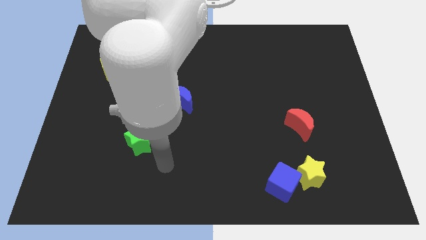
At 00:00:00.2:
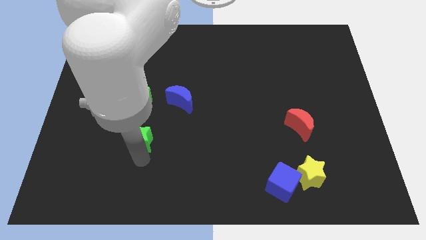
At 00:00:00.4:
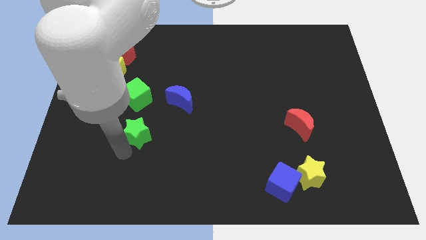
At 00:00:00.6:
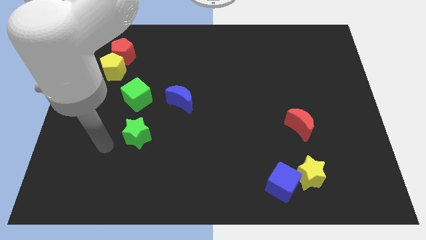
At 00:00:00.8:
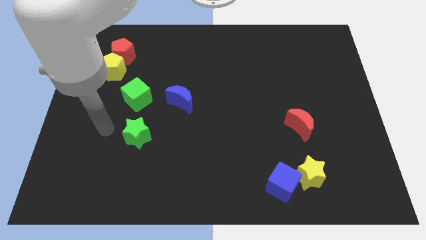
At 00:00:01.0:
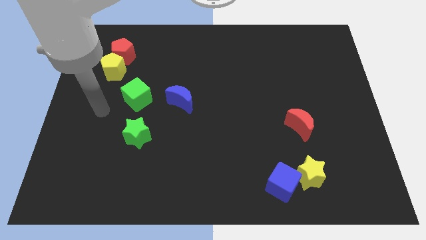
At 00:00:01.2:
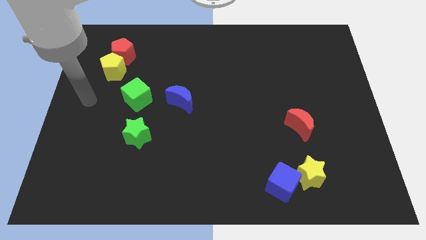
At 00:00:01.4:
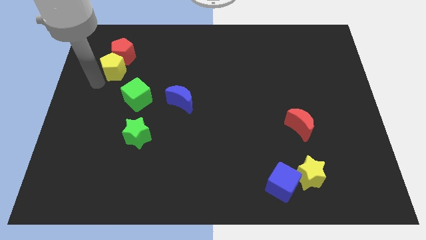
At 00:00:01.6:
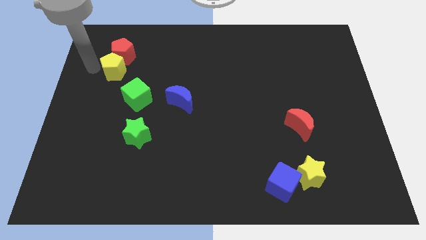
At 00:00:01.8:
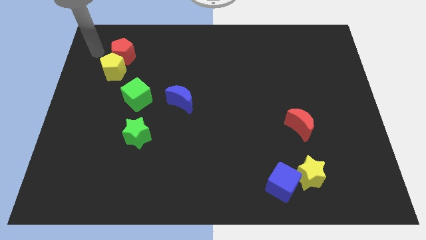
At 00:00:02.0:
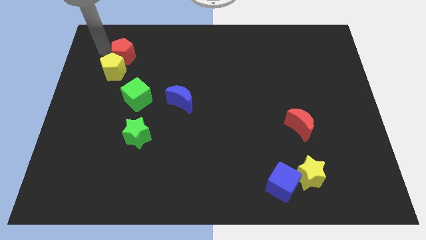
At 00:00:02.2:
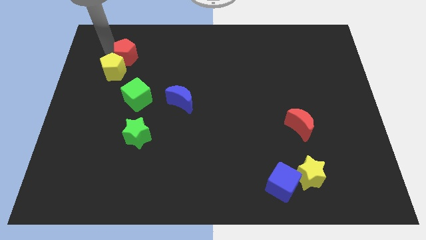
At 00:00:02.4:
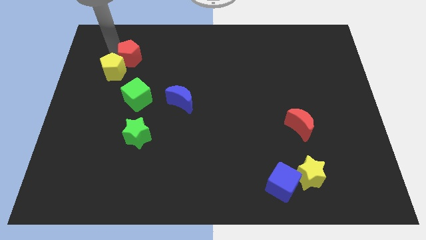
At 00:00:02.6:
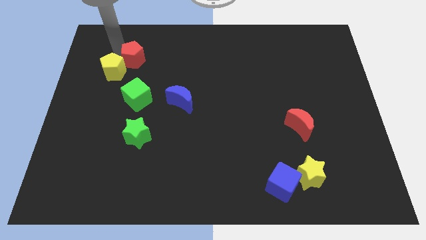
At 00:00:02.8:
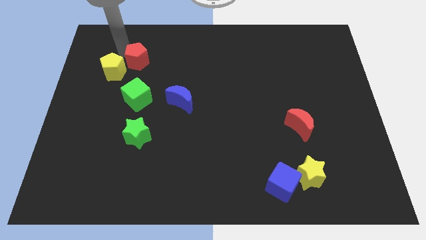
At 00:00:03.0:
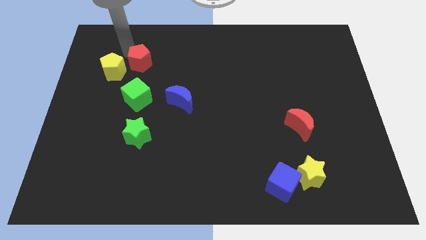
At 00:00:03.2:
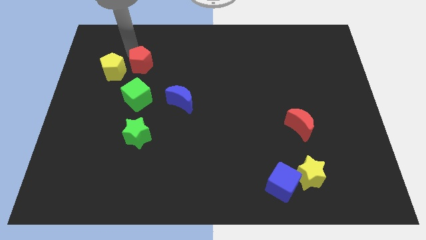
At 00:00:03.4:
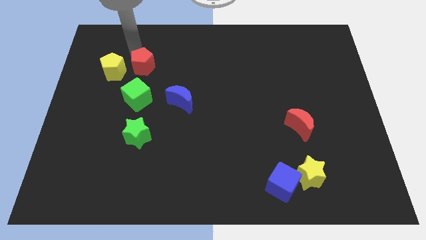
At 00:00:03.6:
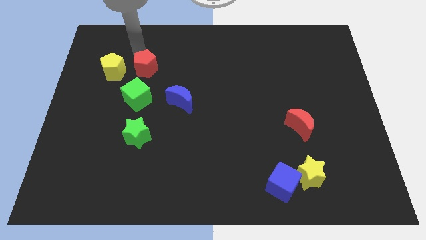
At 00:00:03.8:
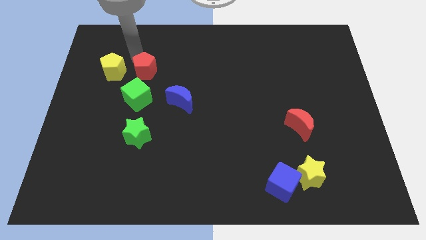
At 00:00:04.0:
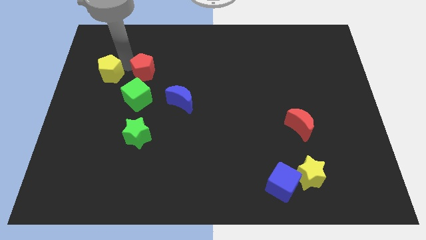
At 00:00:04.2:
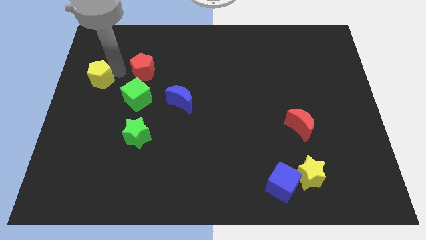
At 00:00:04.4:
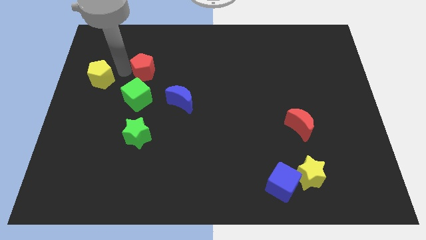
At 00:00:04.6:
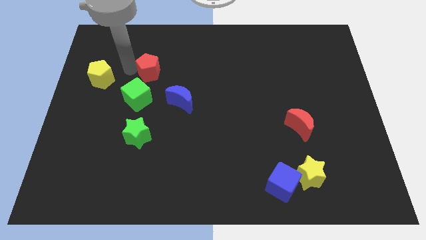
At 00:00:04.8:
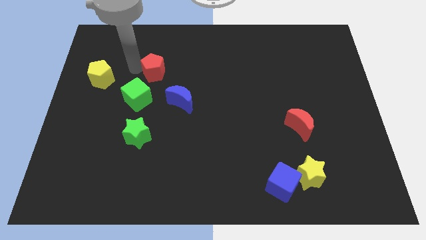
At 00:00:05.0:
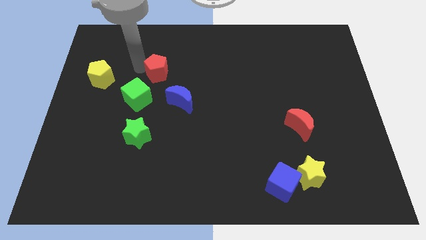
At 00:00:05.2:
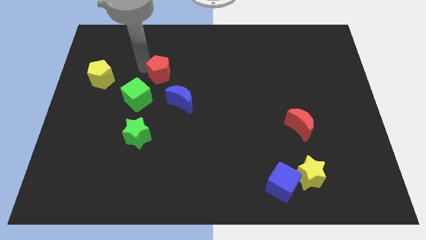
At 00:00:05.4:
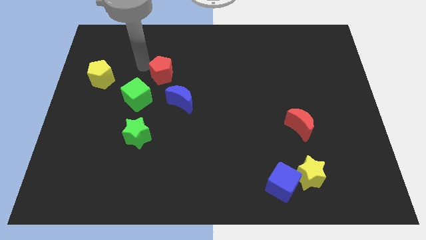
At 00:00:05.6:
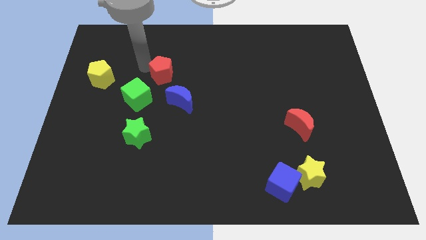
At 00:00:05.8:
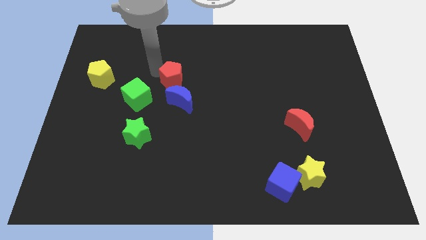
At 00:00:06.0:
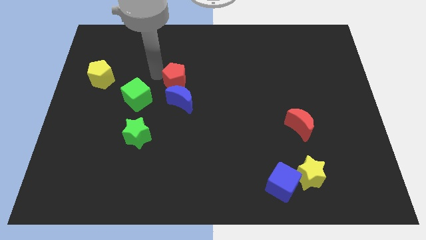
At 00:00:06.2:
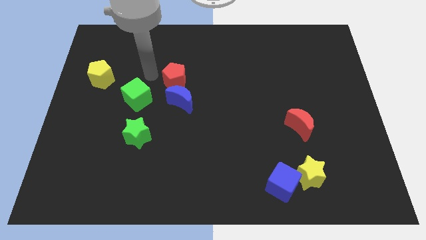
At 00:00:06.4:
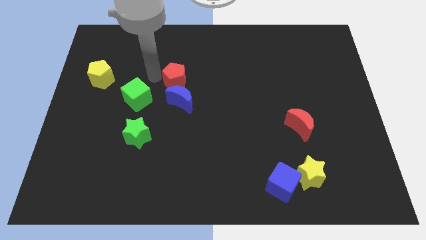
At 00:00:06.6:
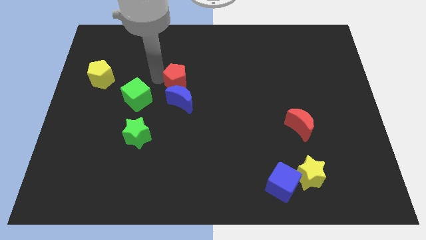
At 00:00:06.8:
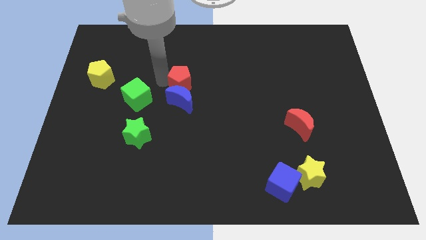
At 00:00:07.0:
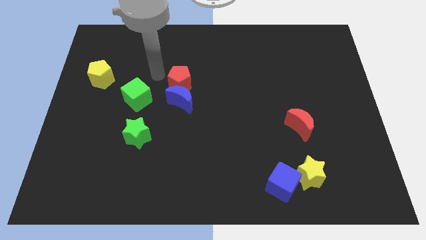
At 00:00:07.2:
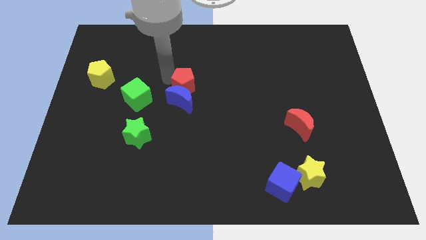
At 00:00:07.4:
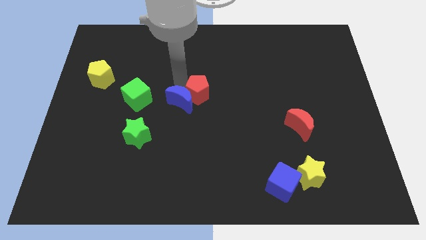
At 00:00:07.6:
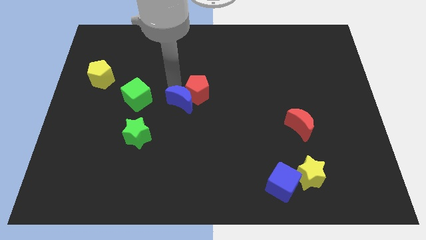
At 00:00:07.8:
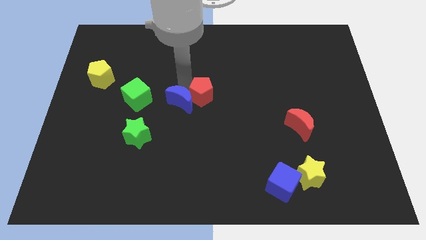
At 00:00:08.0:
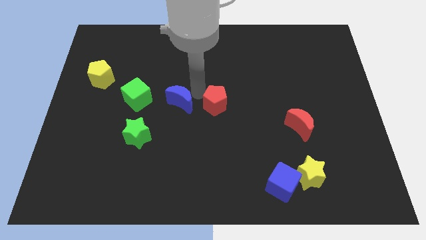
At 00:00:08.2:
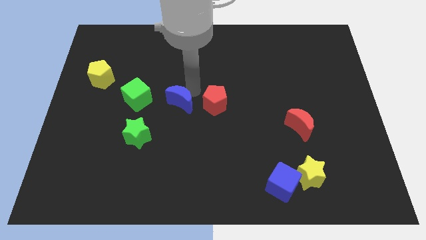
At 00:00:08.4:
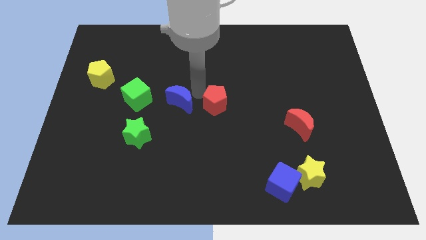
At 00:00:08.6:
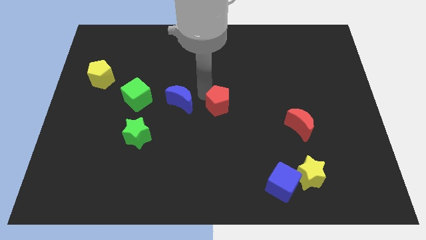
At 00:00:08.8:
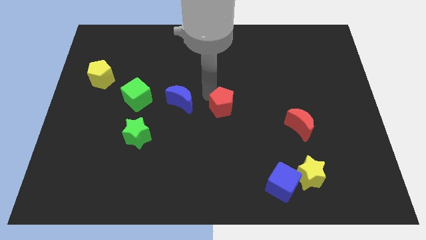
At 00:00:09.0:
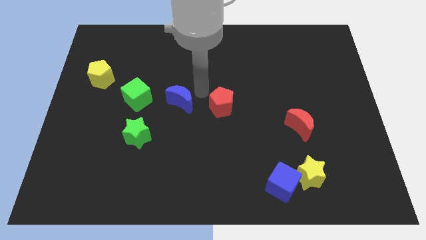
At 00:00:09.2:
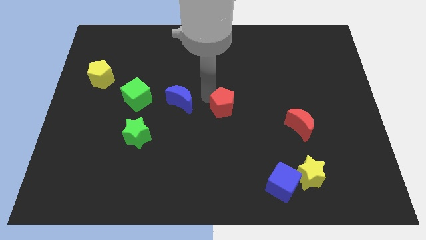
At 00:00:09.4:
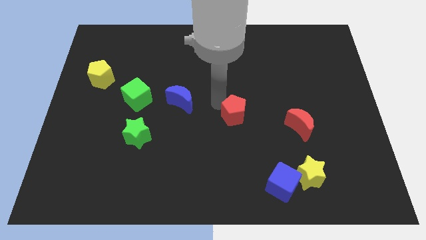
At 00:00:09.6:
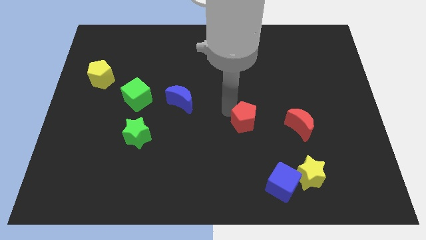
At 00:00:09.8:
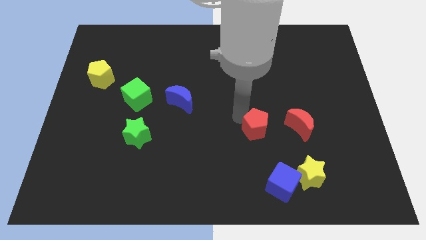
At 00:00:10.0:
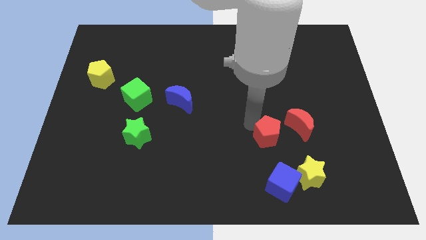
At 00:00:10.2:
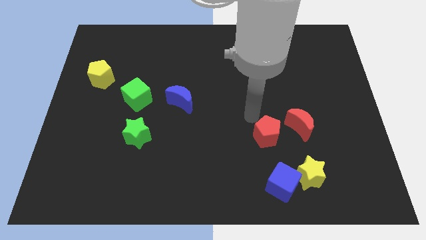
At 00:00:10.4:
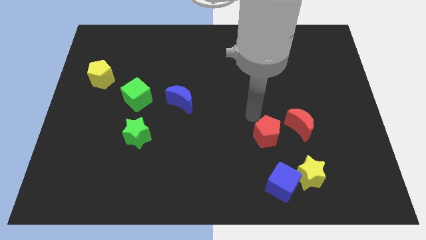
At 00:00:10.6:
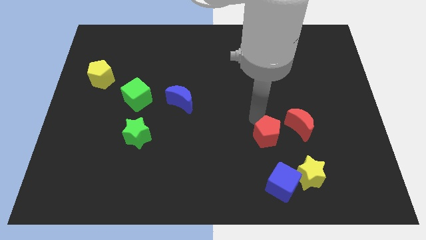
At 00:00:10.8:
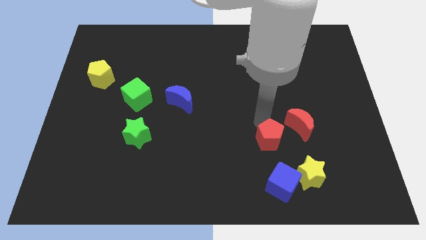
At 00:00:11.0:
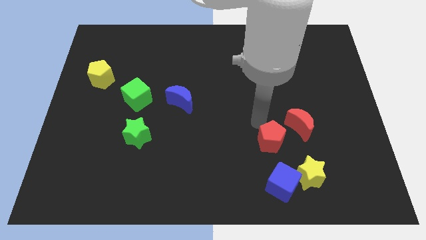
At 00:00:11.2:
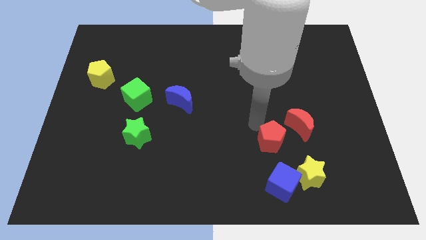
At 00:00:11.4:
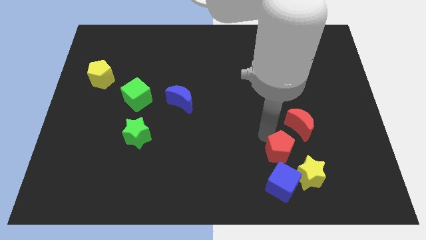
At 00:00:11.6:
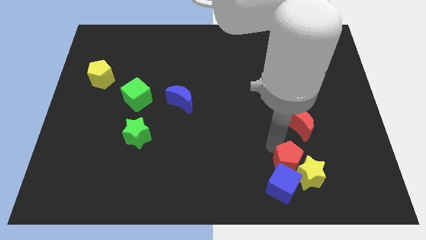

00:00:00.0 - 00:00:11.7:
put the red pentagon to the yellow star
